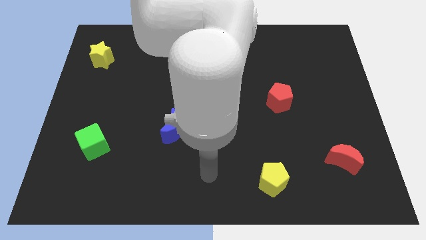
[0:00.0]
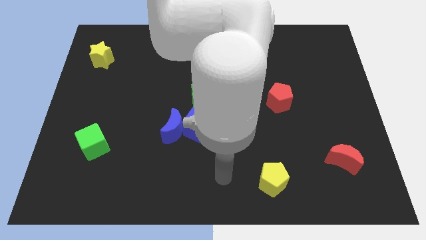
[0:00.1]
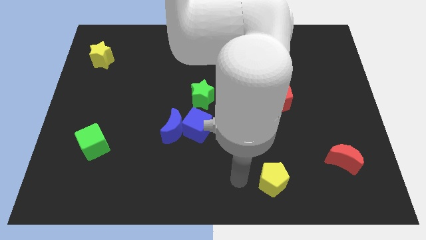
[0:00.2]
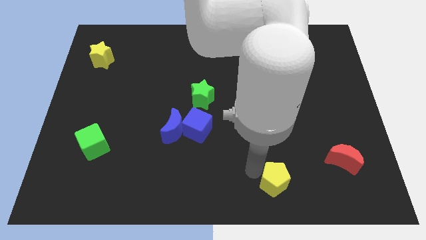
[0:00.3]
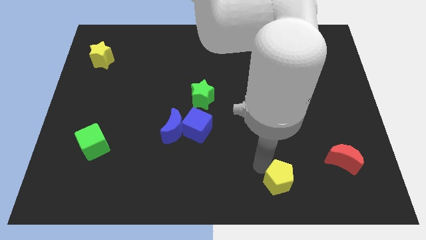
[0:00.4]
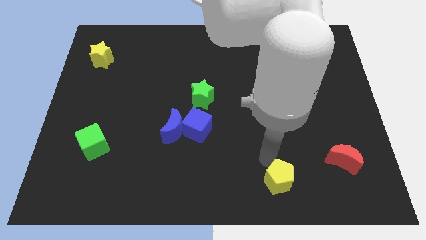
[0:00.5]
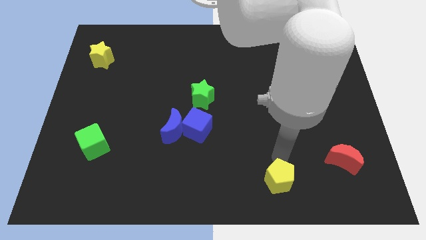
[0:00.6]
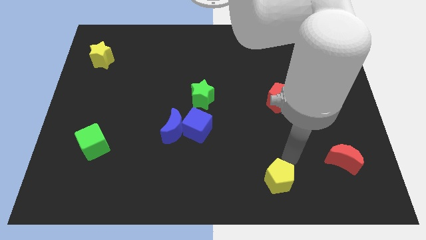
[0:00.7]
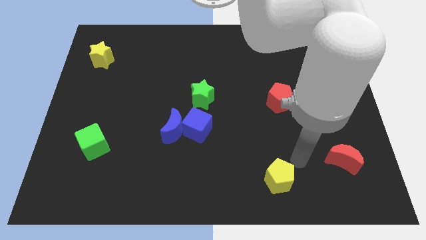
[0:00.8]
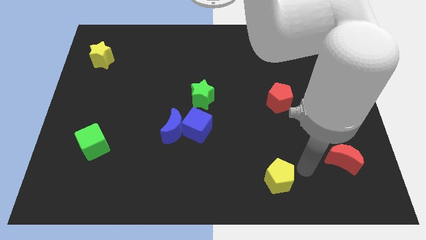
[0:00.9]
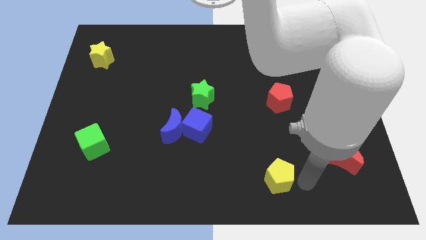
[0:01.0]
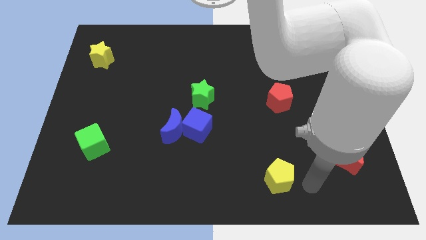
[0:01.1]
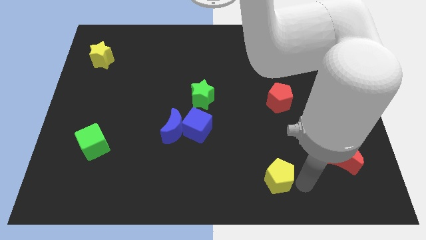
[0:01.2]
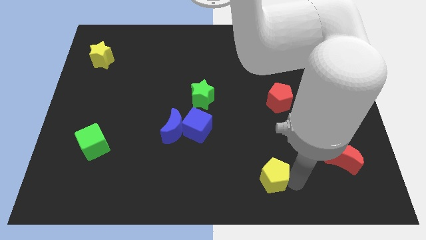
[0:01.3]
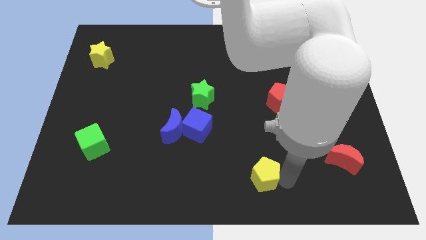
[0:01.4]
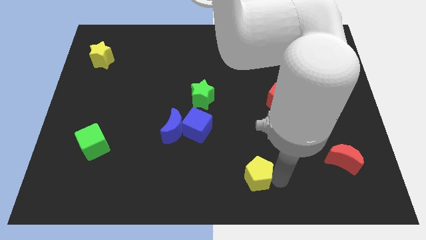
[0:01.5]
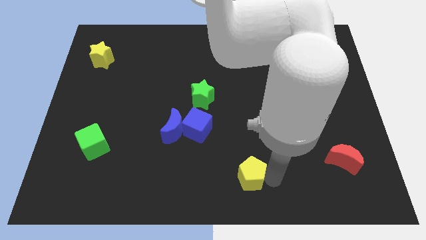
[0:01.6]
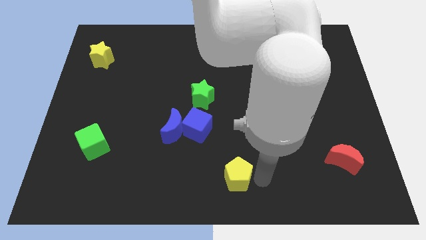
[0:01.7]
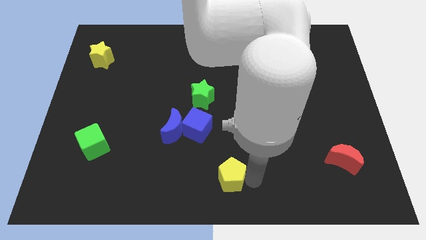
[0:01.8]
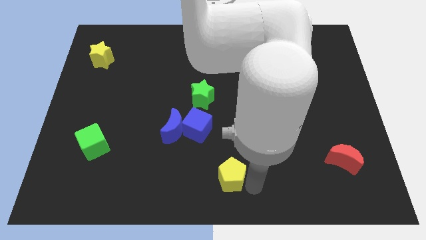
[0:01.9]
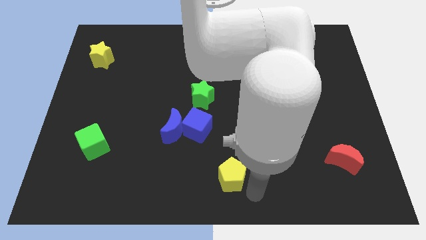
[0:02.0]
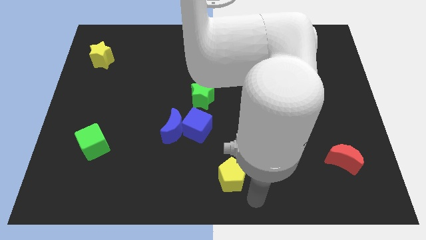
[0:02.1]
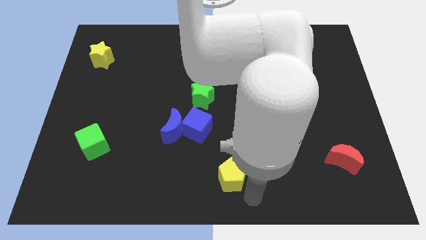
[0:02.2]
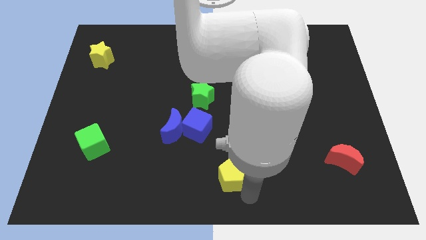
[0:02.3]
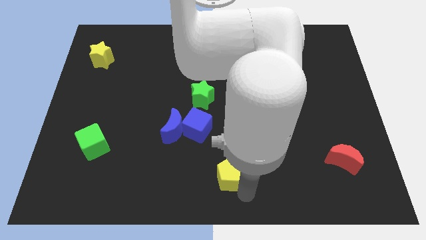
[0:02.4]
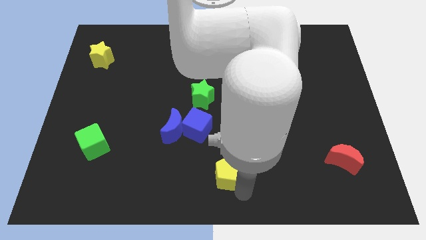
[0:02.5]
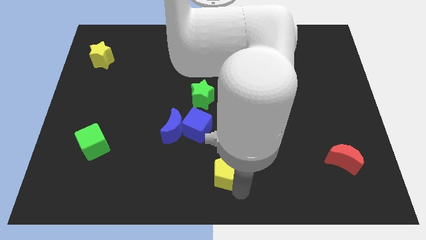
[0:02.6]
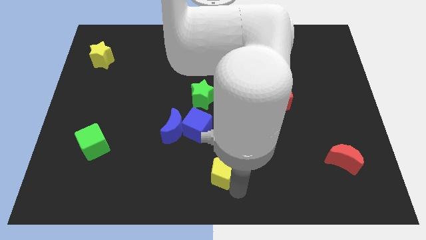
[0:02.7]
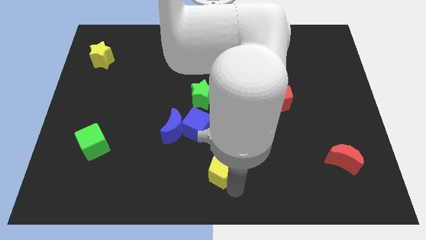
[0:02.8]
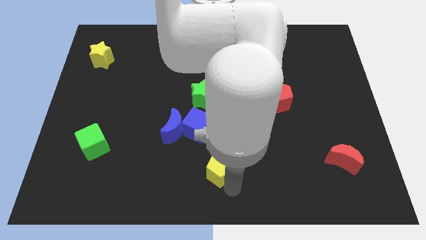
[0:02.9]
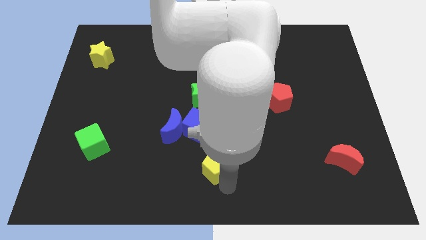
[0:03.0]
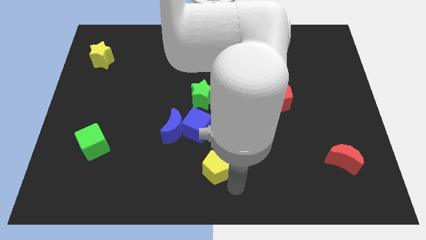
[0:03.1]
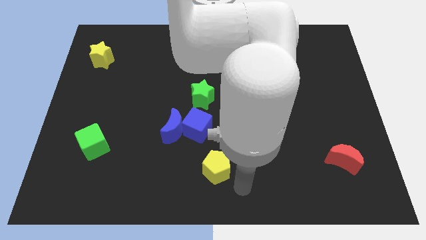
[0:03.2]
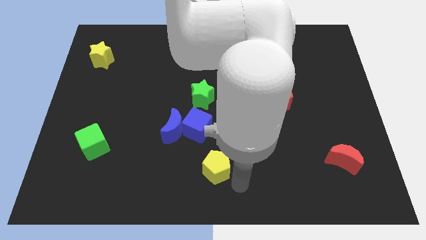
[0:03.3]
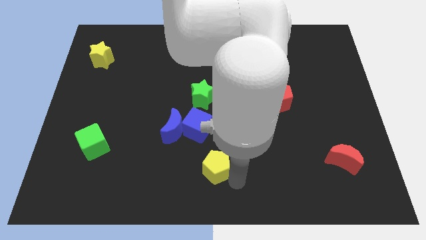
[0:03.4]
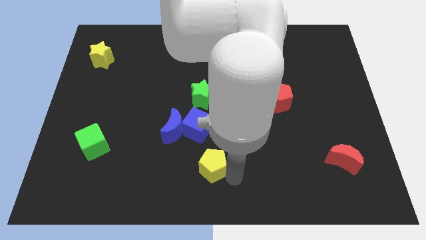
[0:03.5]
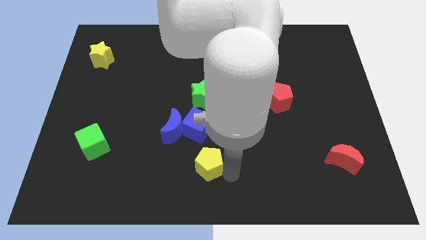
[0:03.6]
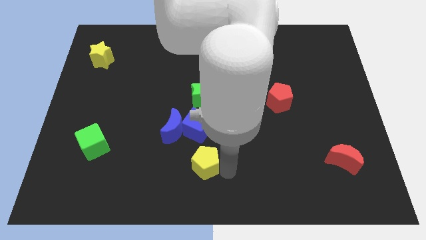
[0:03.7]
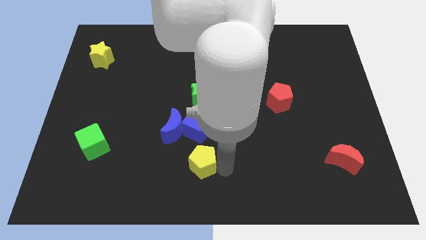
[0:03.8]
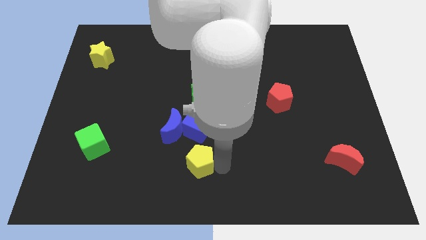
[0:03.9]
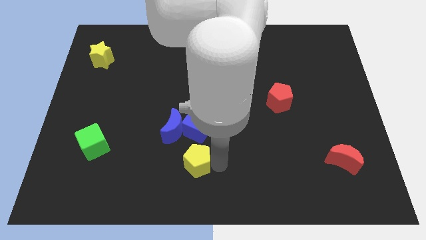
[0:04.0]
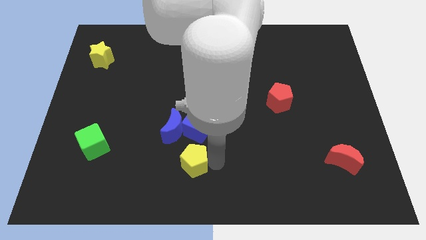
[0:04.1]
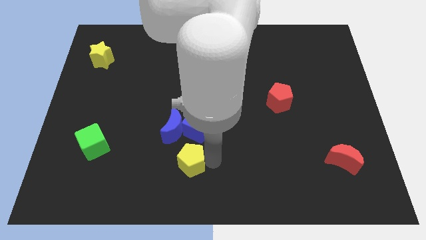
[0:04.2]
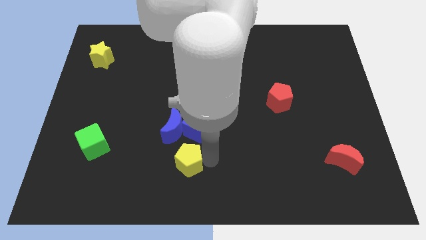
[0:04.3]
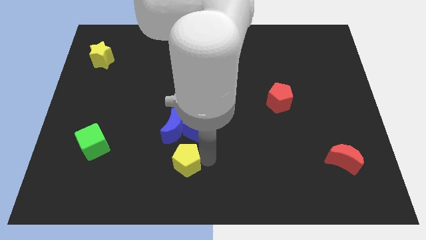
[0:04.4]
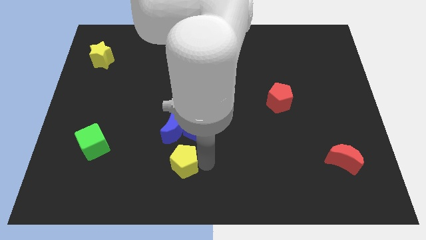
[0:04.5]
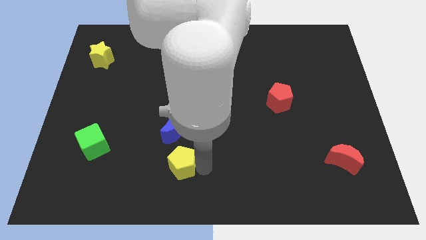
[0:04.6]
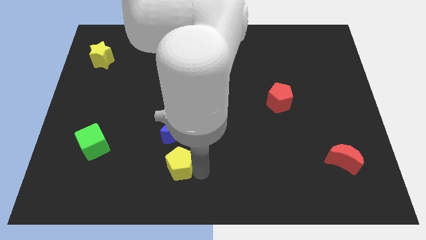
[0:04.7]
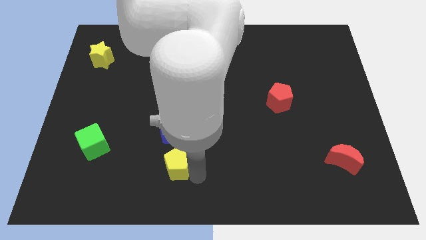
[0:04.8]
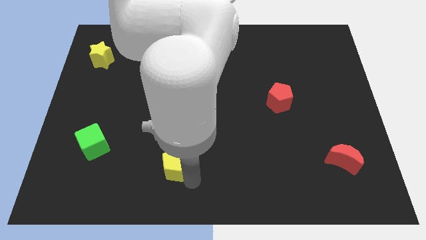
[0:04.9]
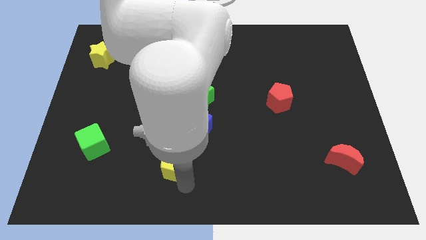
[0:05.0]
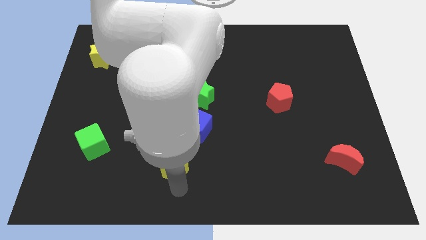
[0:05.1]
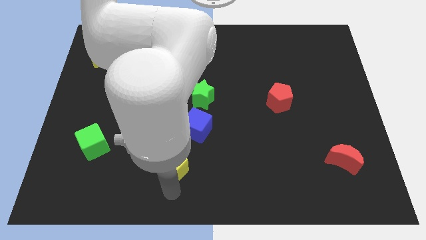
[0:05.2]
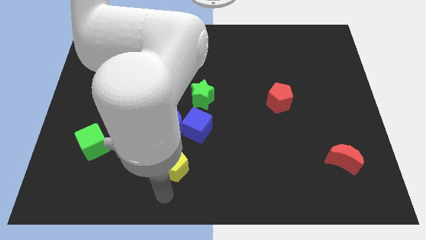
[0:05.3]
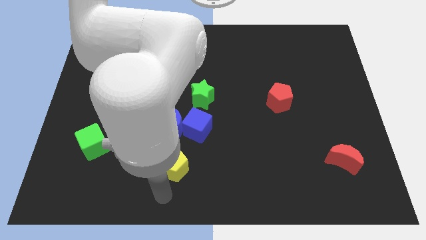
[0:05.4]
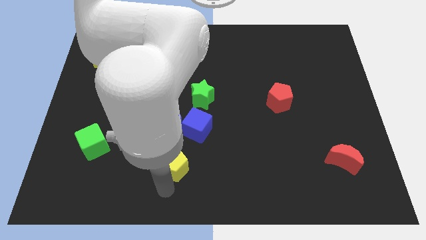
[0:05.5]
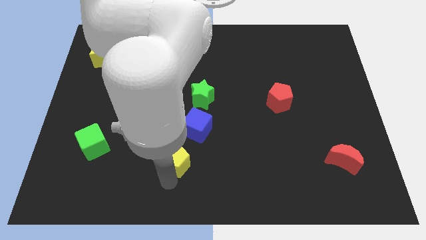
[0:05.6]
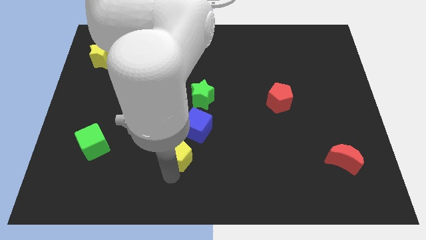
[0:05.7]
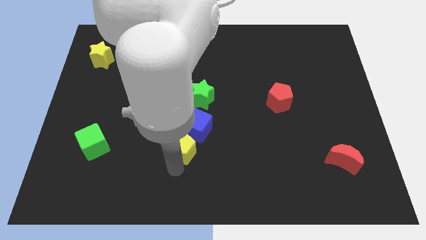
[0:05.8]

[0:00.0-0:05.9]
slide the yellow pentagon close to the blue moon
